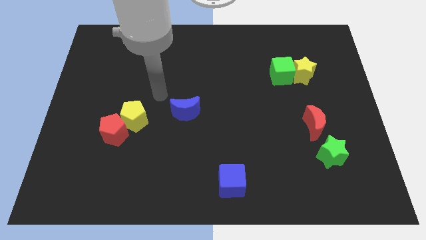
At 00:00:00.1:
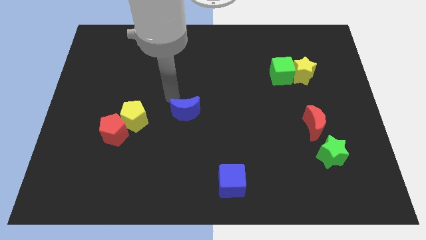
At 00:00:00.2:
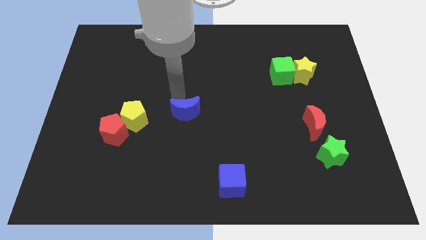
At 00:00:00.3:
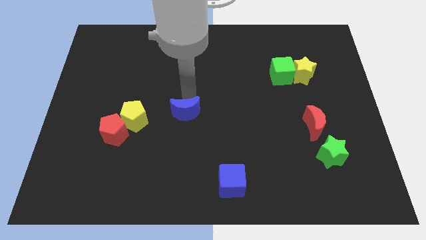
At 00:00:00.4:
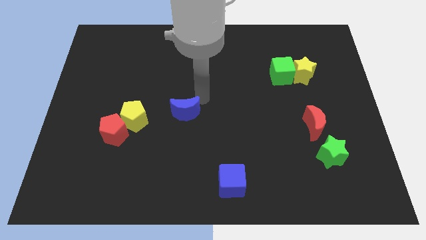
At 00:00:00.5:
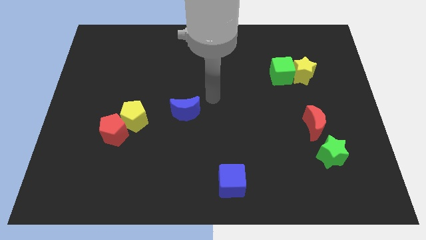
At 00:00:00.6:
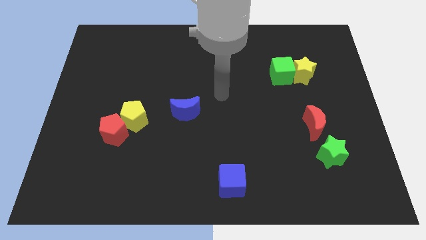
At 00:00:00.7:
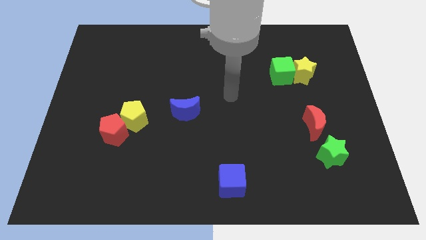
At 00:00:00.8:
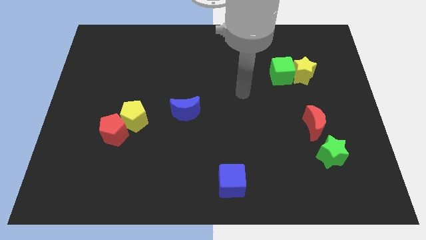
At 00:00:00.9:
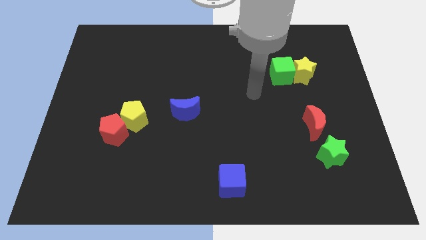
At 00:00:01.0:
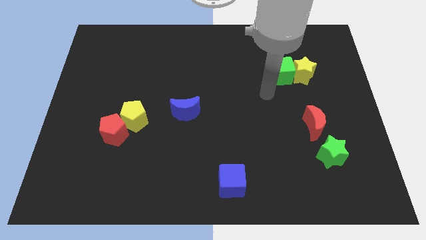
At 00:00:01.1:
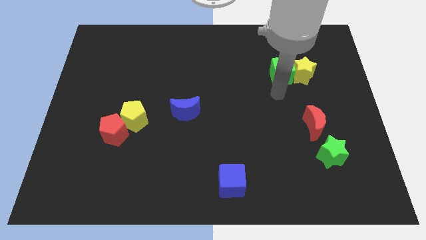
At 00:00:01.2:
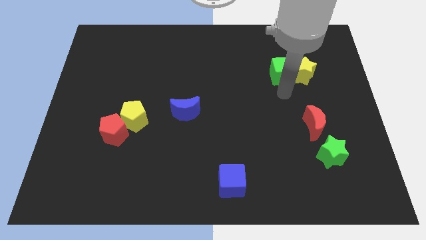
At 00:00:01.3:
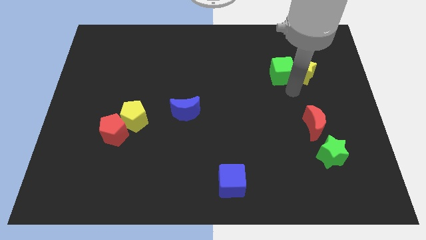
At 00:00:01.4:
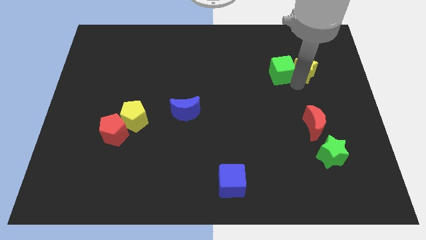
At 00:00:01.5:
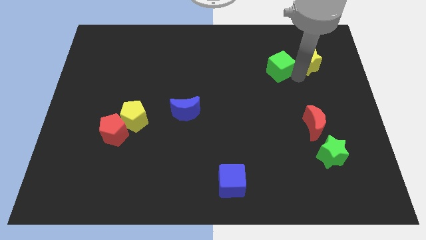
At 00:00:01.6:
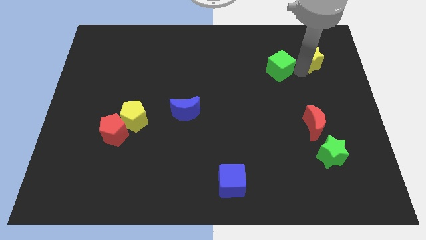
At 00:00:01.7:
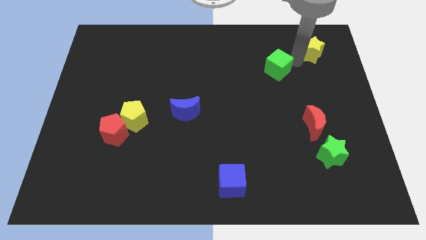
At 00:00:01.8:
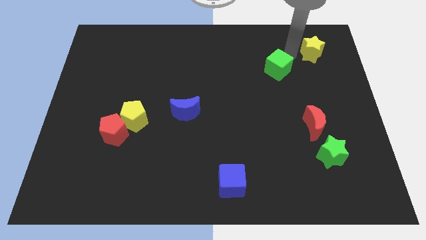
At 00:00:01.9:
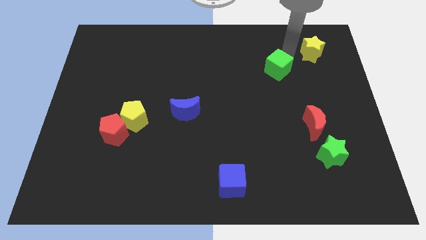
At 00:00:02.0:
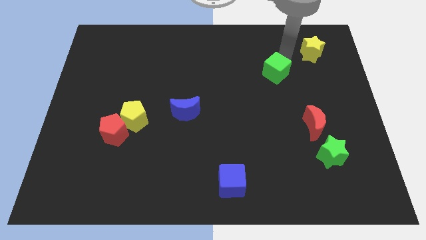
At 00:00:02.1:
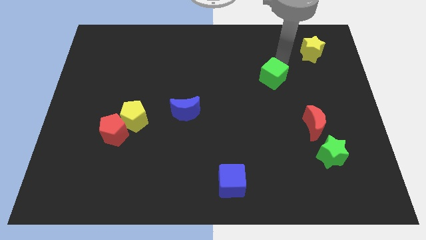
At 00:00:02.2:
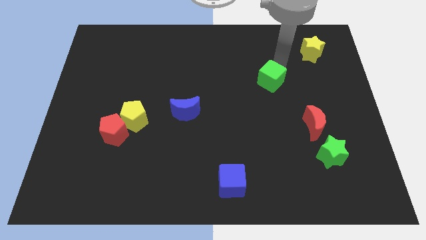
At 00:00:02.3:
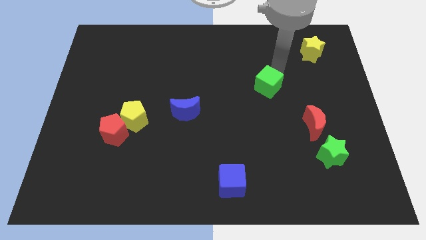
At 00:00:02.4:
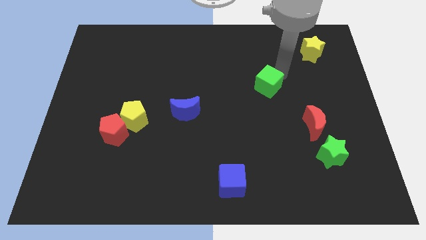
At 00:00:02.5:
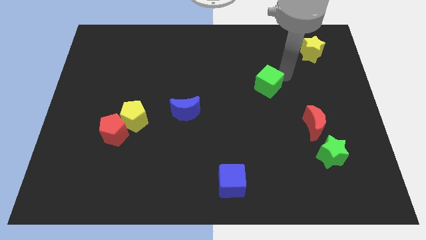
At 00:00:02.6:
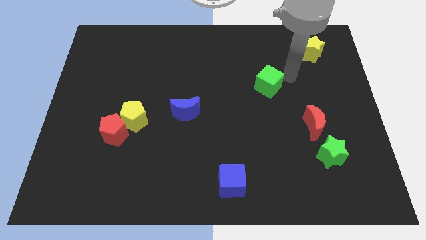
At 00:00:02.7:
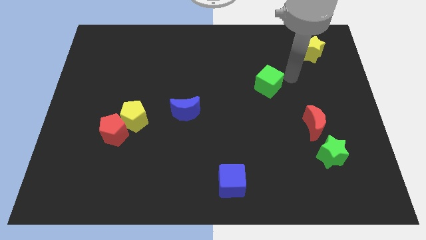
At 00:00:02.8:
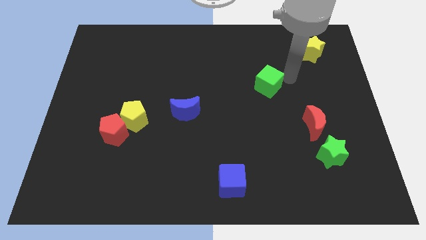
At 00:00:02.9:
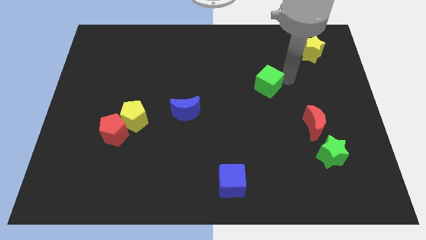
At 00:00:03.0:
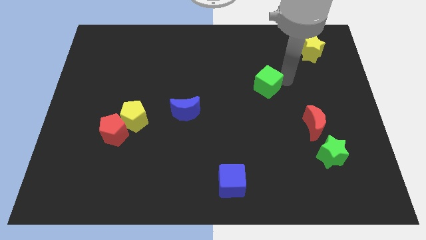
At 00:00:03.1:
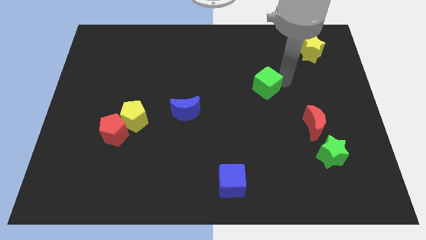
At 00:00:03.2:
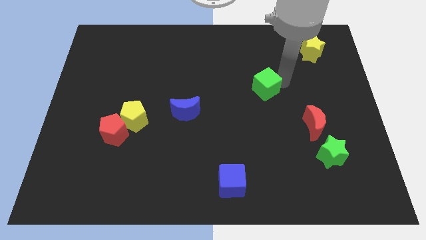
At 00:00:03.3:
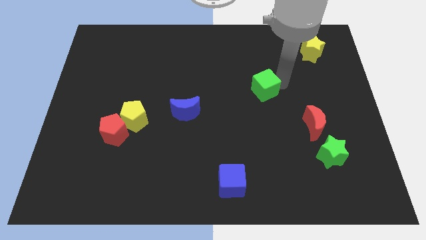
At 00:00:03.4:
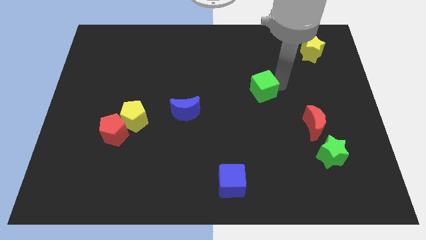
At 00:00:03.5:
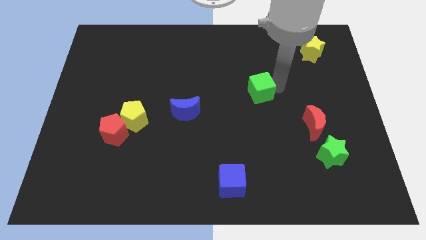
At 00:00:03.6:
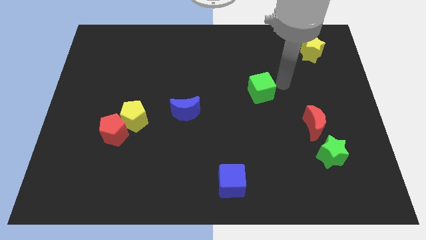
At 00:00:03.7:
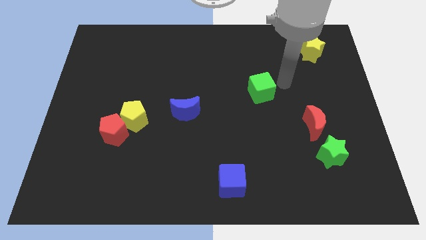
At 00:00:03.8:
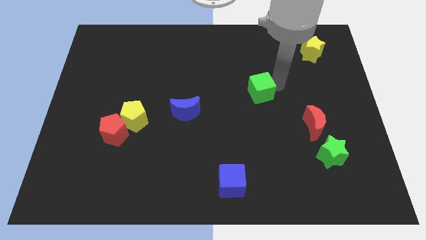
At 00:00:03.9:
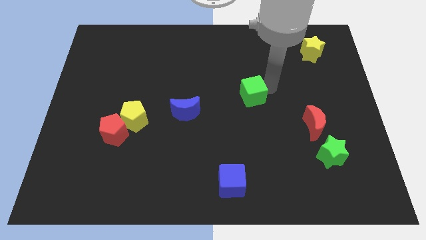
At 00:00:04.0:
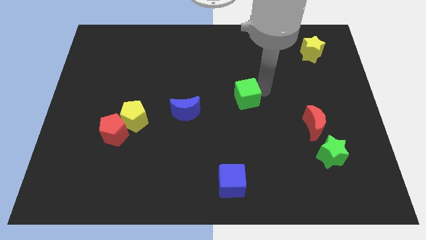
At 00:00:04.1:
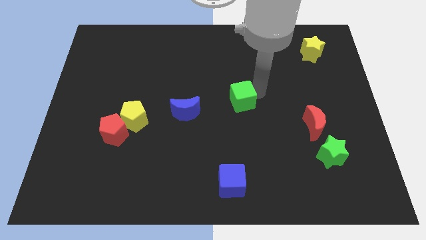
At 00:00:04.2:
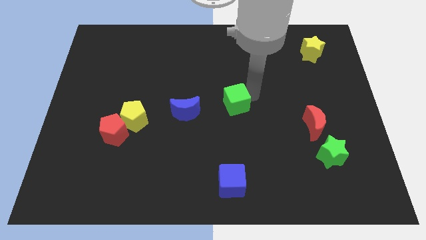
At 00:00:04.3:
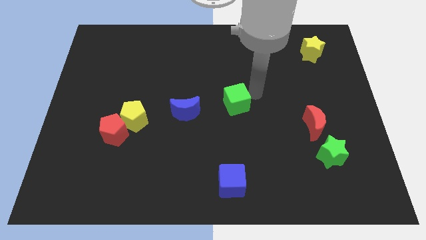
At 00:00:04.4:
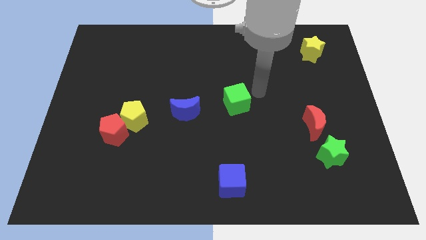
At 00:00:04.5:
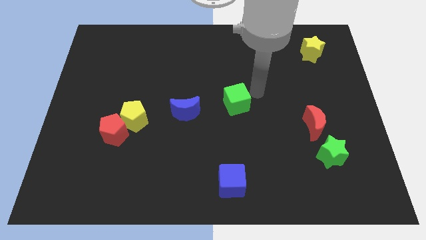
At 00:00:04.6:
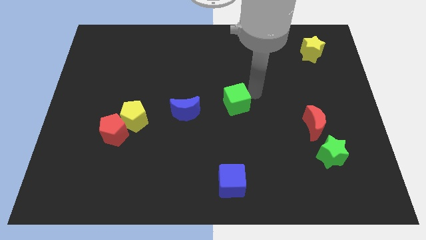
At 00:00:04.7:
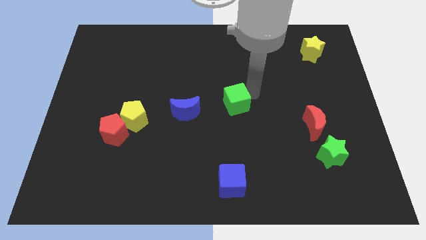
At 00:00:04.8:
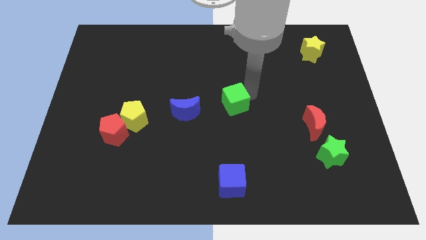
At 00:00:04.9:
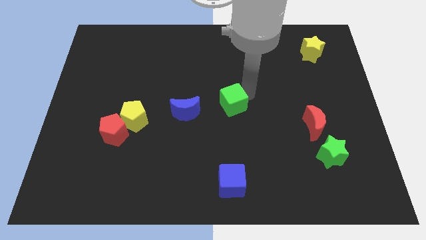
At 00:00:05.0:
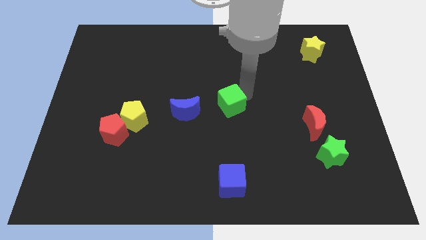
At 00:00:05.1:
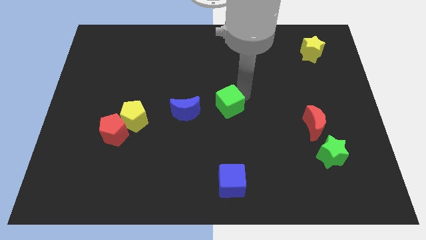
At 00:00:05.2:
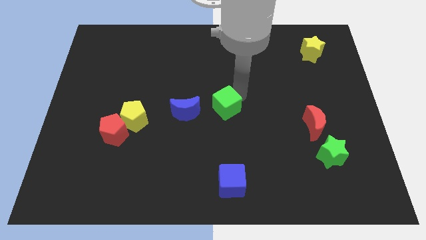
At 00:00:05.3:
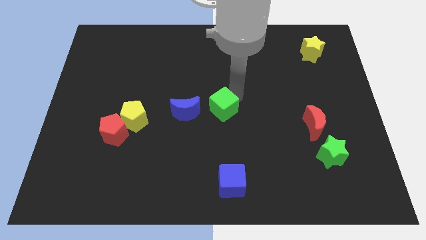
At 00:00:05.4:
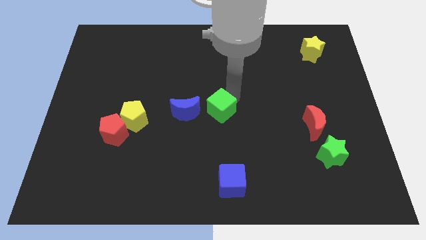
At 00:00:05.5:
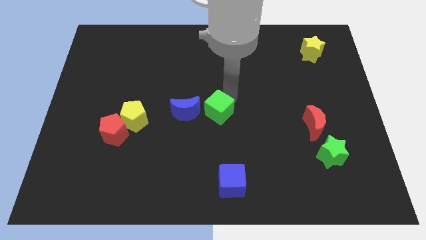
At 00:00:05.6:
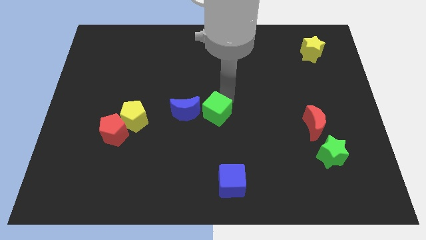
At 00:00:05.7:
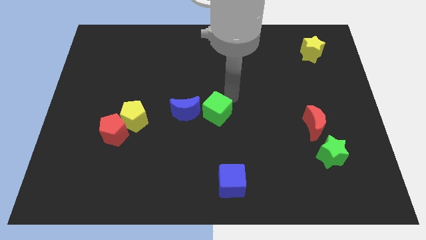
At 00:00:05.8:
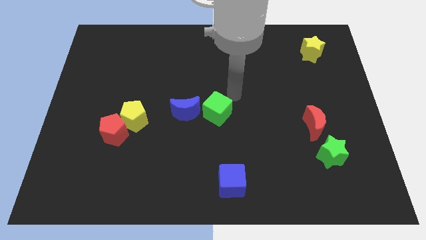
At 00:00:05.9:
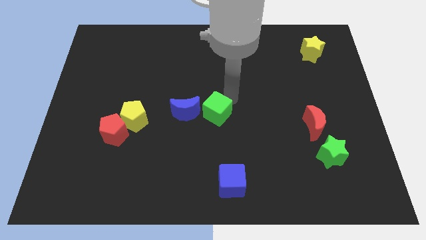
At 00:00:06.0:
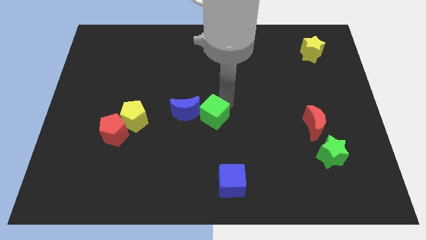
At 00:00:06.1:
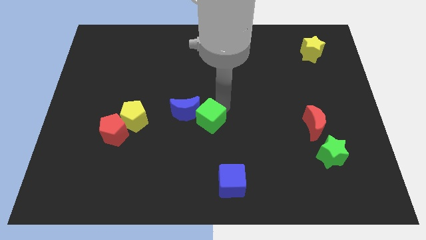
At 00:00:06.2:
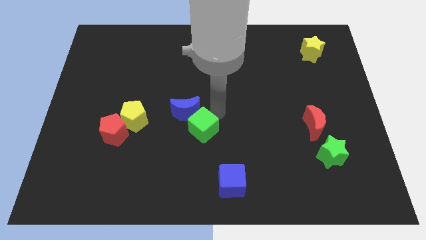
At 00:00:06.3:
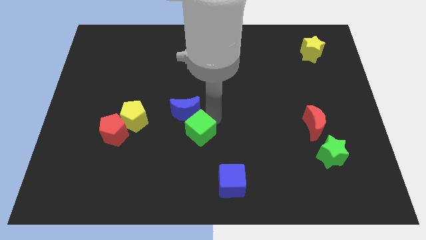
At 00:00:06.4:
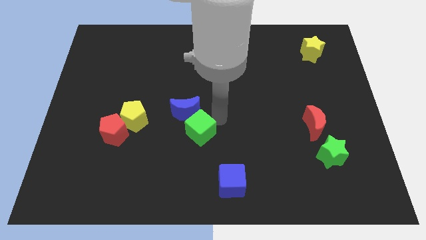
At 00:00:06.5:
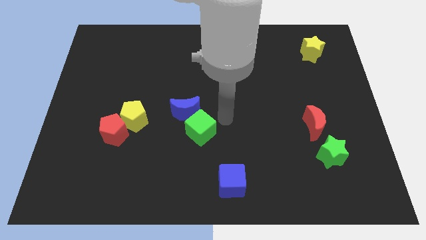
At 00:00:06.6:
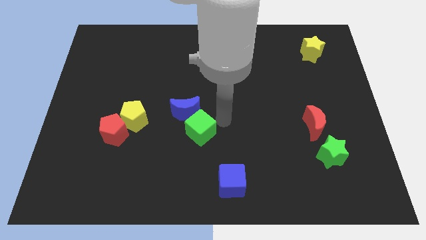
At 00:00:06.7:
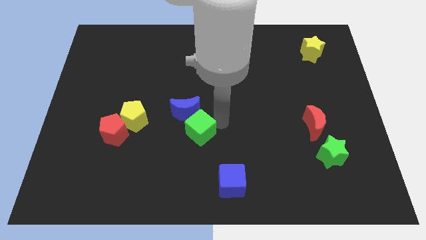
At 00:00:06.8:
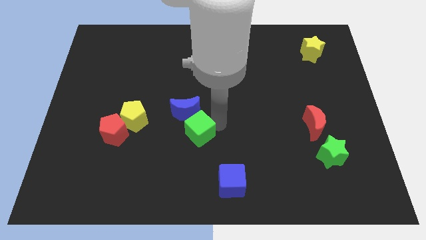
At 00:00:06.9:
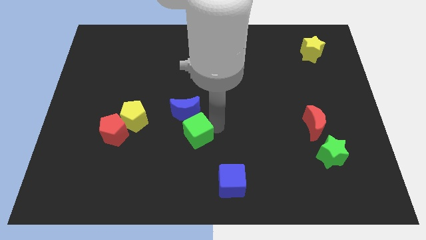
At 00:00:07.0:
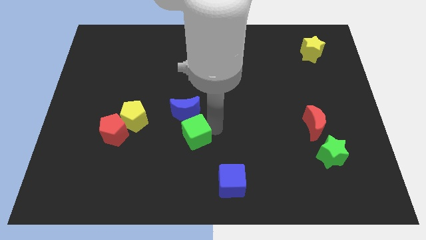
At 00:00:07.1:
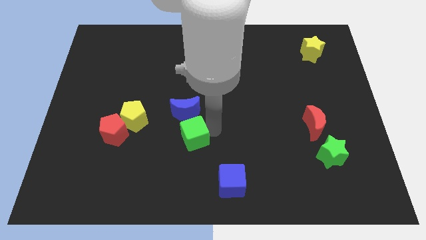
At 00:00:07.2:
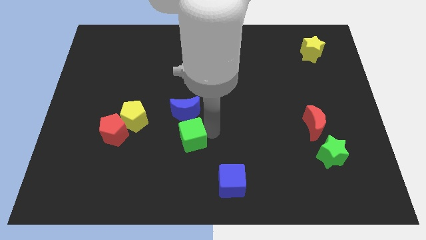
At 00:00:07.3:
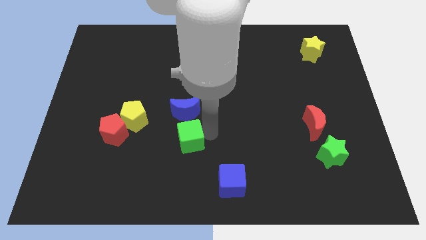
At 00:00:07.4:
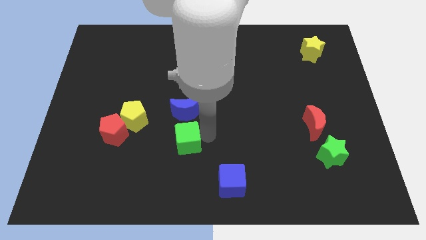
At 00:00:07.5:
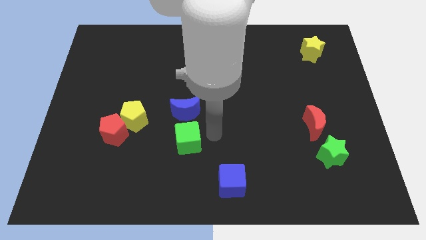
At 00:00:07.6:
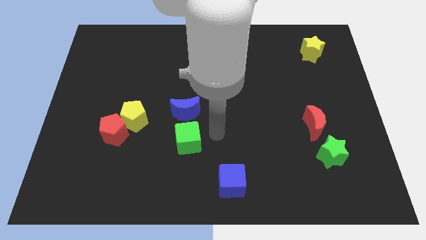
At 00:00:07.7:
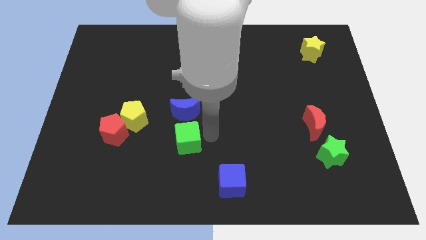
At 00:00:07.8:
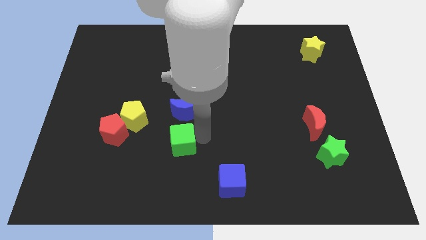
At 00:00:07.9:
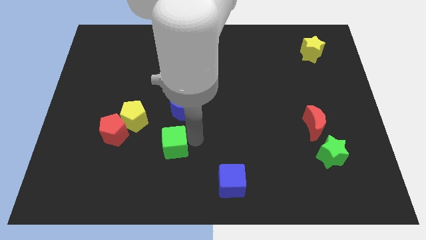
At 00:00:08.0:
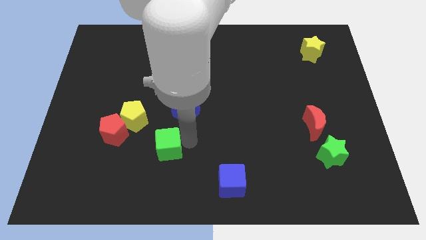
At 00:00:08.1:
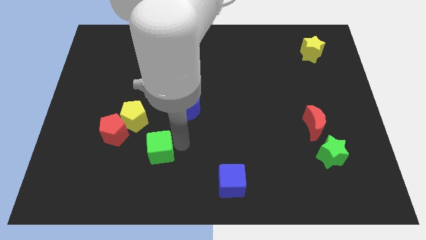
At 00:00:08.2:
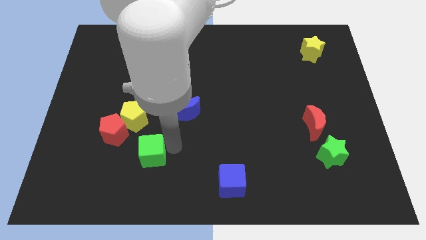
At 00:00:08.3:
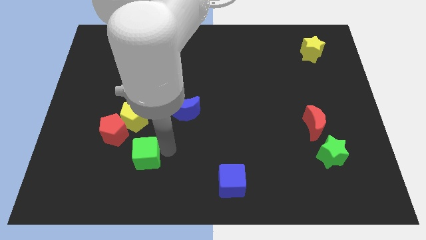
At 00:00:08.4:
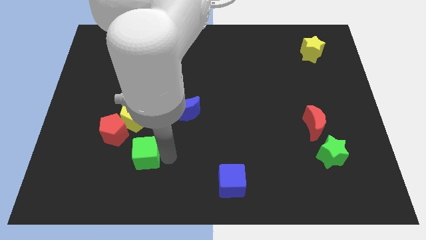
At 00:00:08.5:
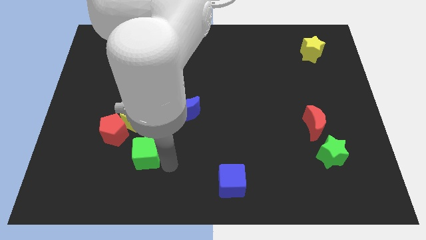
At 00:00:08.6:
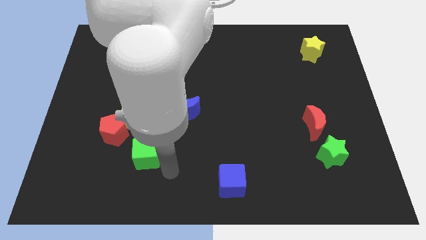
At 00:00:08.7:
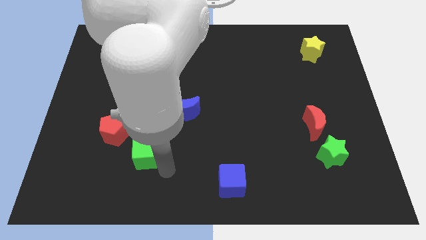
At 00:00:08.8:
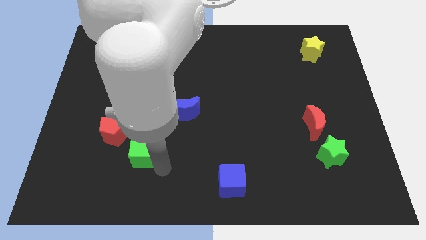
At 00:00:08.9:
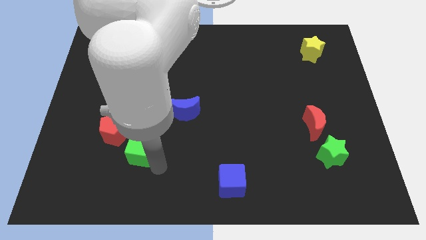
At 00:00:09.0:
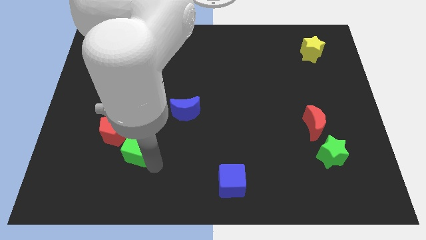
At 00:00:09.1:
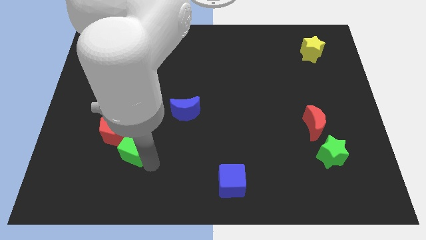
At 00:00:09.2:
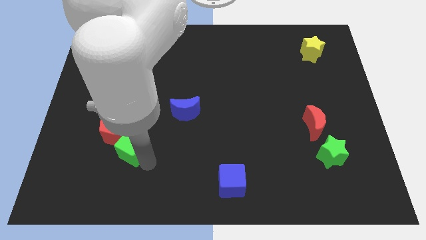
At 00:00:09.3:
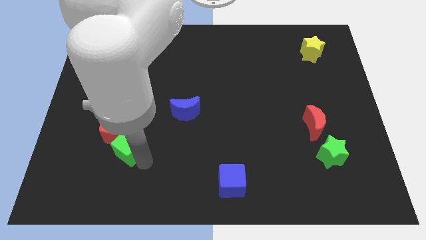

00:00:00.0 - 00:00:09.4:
put the green cube towards the red pentagon
